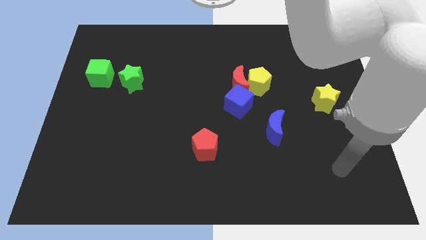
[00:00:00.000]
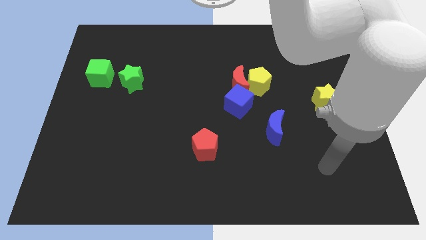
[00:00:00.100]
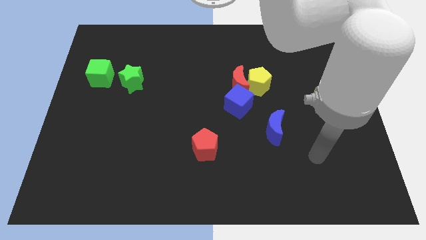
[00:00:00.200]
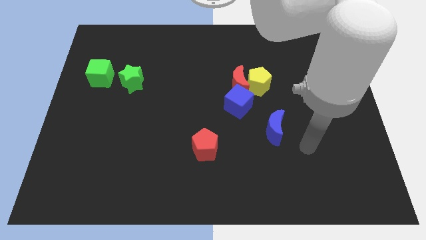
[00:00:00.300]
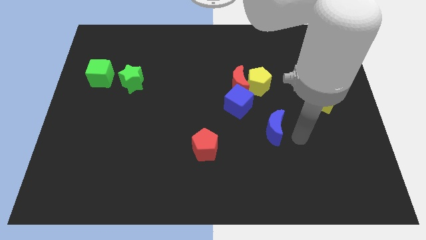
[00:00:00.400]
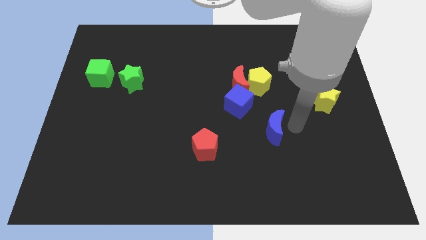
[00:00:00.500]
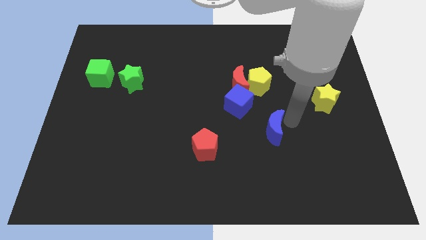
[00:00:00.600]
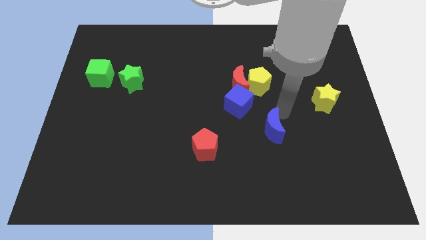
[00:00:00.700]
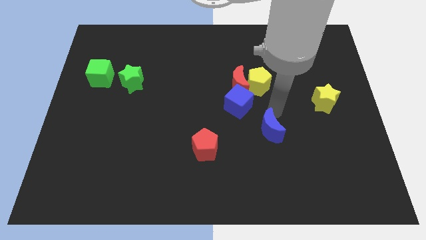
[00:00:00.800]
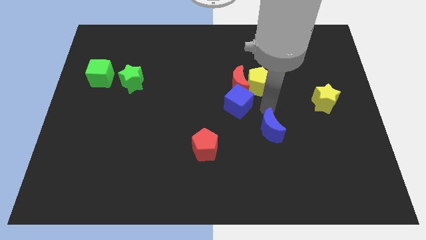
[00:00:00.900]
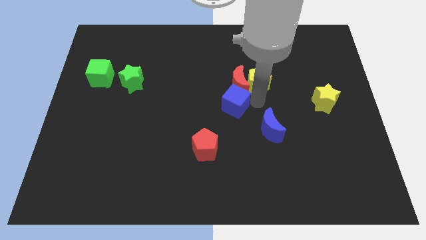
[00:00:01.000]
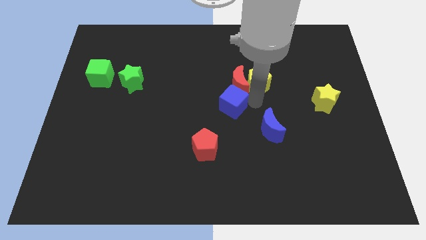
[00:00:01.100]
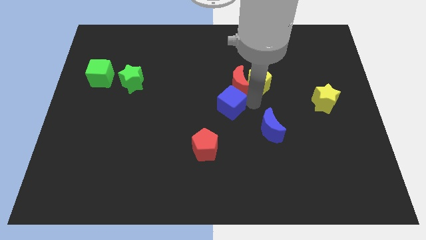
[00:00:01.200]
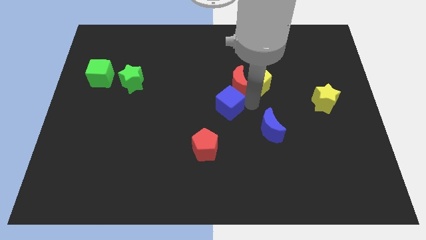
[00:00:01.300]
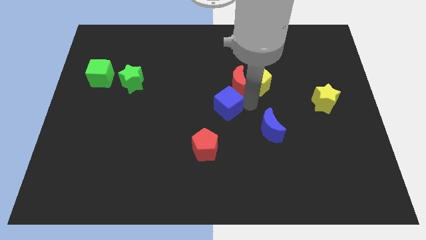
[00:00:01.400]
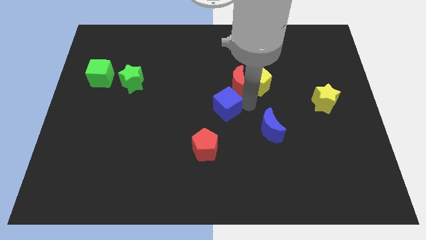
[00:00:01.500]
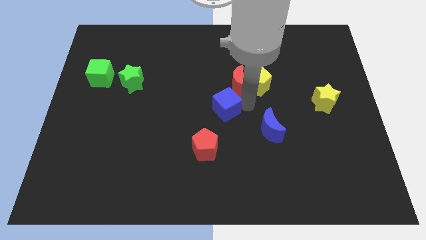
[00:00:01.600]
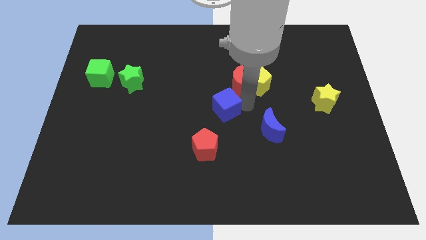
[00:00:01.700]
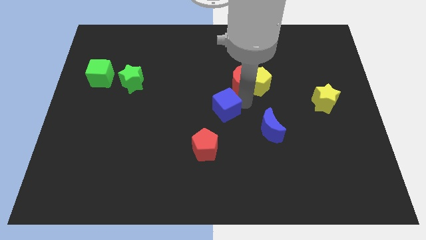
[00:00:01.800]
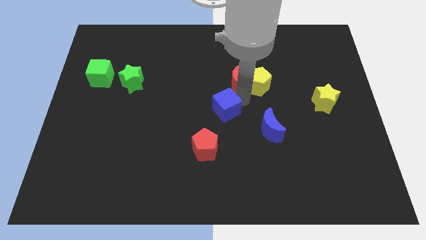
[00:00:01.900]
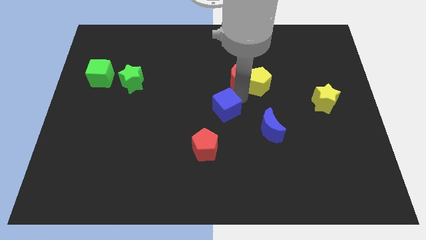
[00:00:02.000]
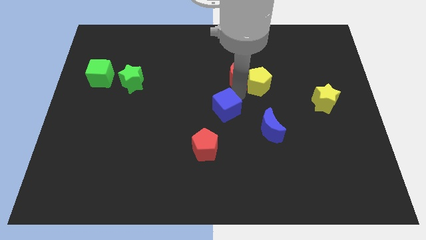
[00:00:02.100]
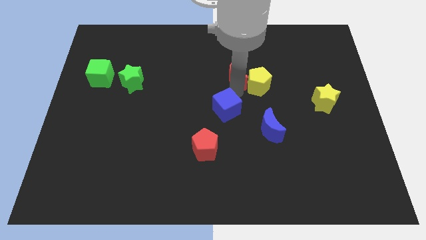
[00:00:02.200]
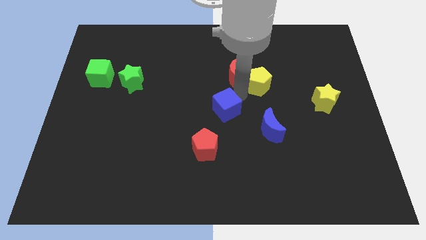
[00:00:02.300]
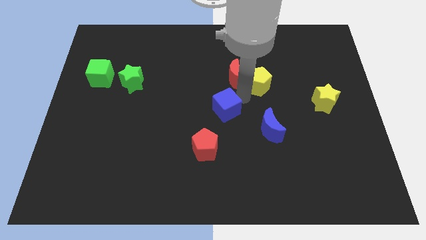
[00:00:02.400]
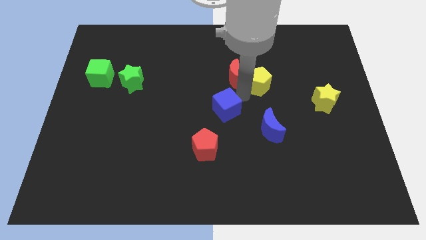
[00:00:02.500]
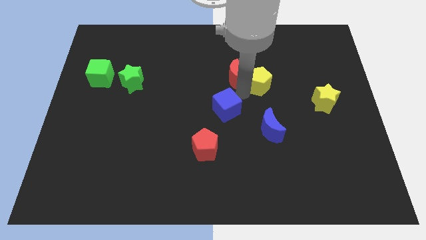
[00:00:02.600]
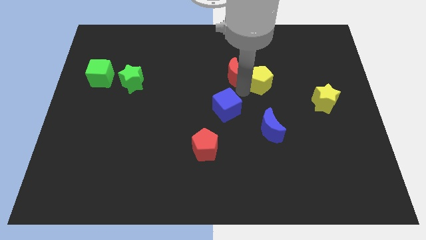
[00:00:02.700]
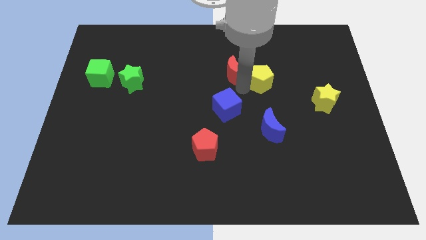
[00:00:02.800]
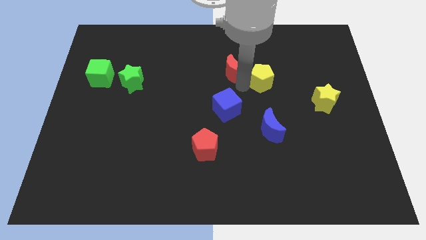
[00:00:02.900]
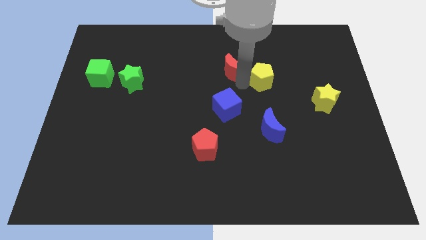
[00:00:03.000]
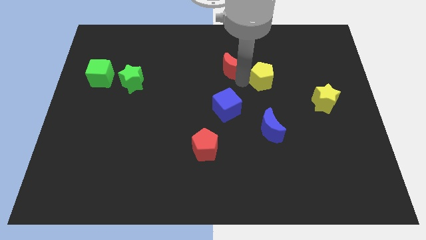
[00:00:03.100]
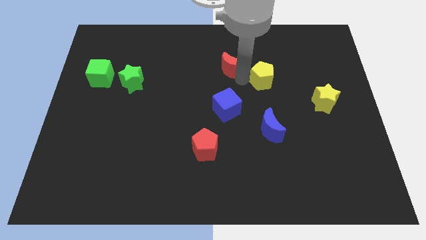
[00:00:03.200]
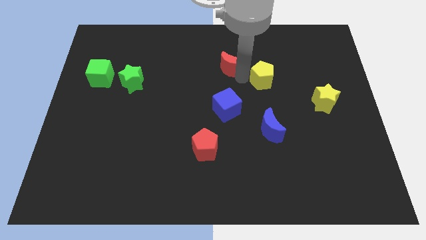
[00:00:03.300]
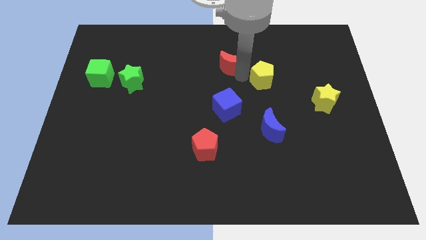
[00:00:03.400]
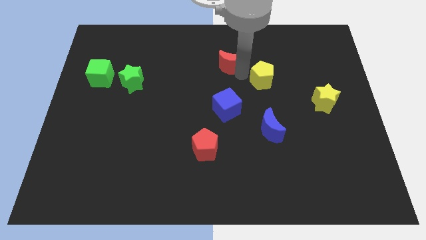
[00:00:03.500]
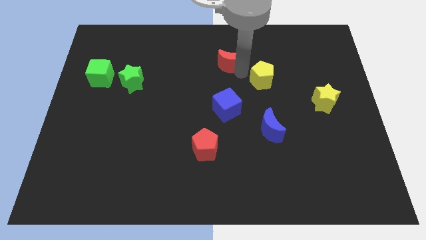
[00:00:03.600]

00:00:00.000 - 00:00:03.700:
move the red moon away from the yellow pentagon and blue cube

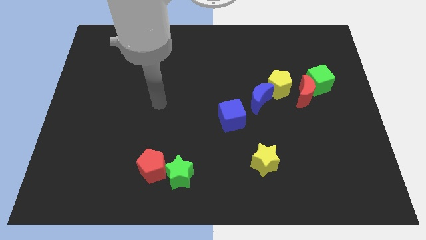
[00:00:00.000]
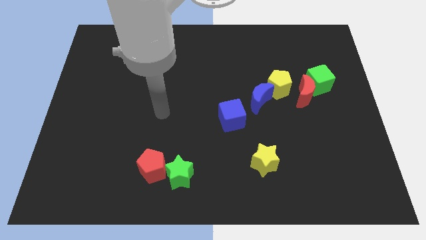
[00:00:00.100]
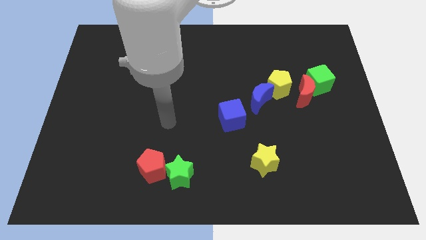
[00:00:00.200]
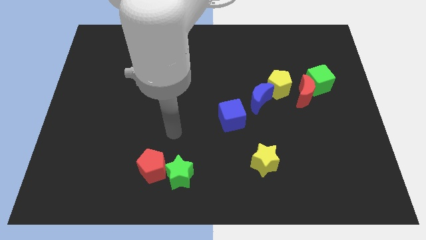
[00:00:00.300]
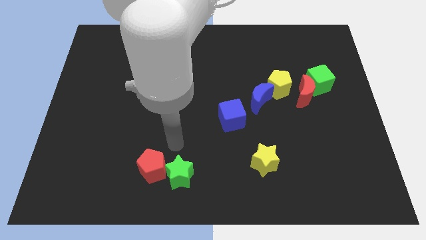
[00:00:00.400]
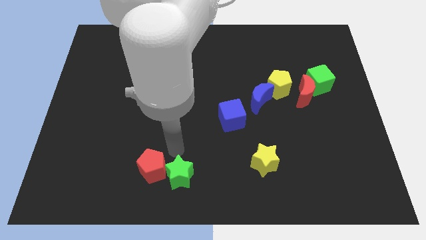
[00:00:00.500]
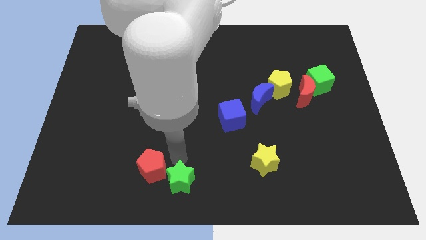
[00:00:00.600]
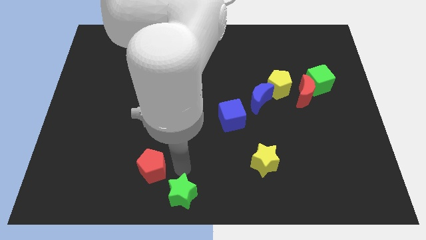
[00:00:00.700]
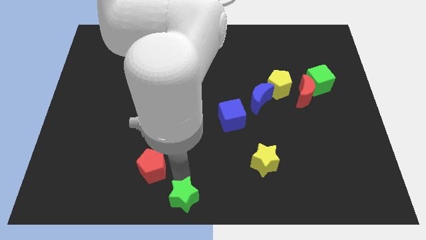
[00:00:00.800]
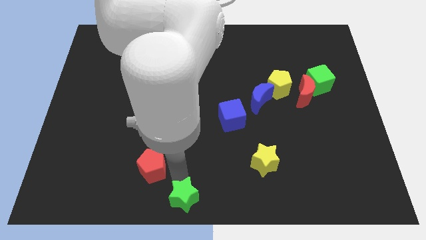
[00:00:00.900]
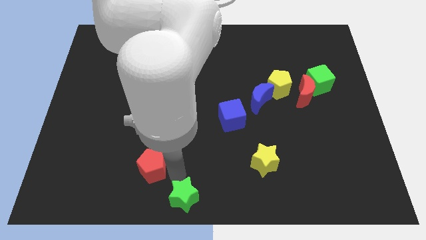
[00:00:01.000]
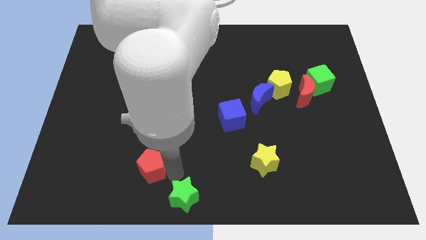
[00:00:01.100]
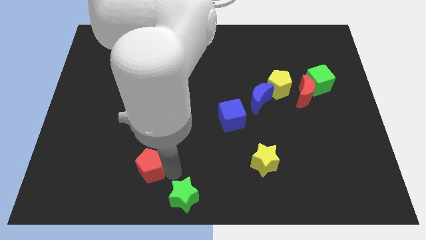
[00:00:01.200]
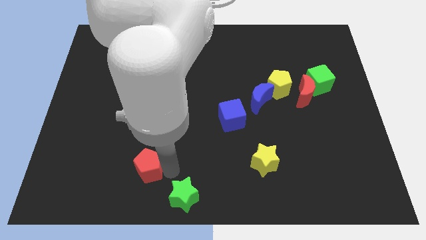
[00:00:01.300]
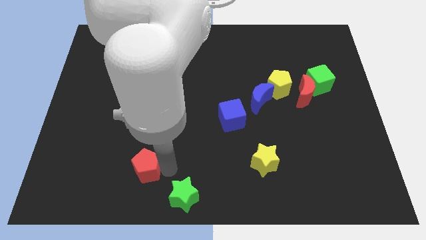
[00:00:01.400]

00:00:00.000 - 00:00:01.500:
pull the red pentagon apart from the green star

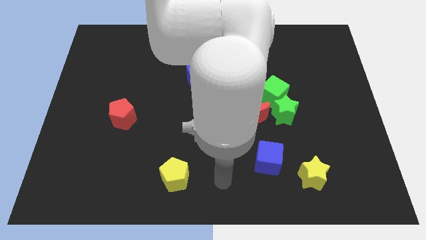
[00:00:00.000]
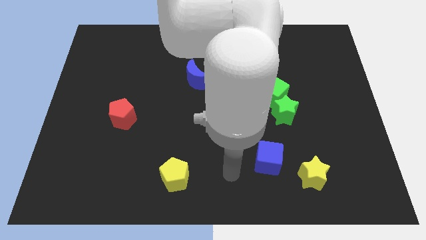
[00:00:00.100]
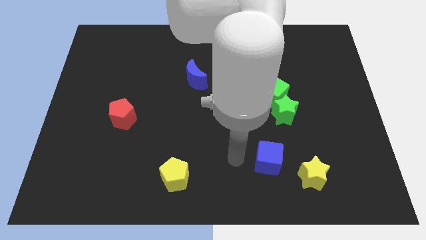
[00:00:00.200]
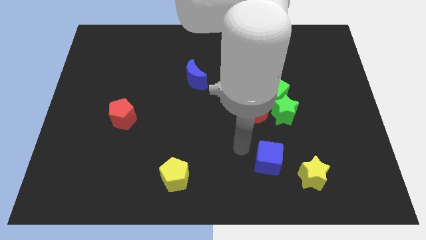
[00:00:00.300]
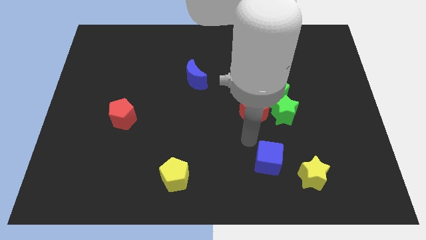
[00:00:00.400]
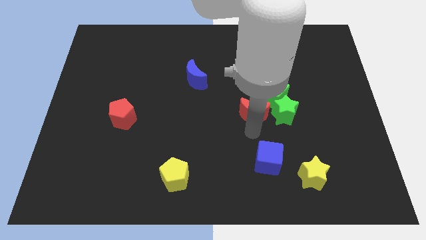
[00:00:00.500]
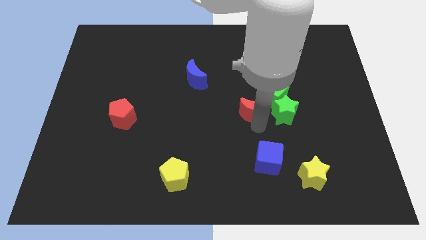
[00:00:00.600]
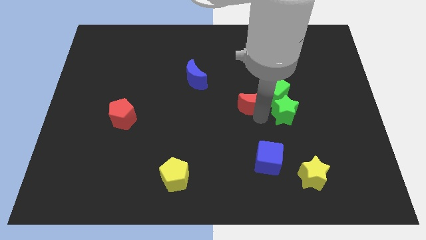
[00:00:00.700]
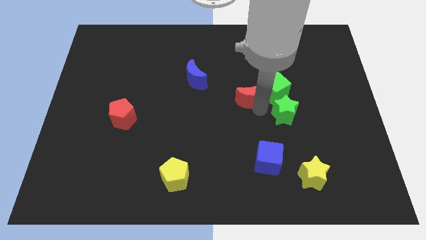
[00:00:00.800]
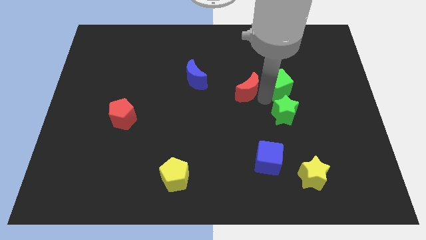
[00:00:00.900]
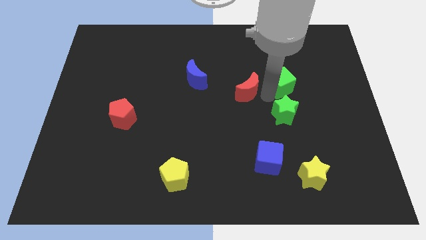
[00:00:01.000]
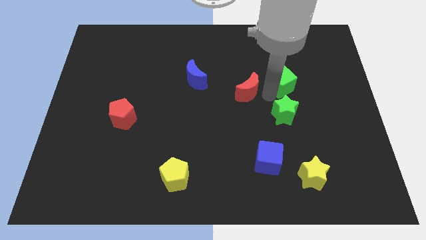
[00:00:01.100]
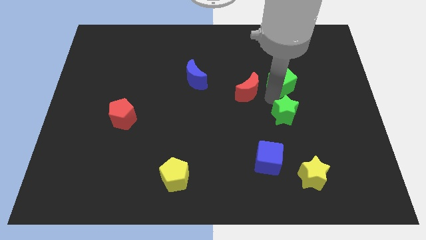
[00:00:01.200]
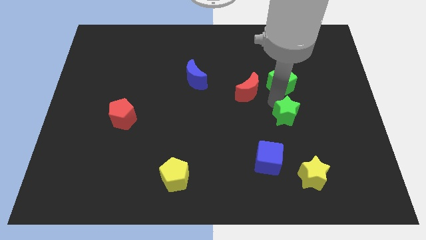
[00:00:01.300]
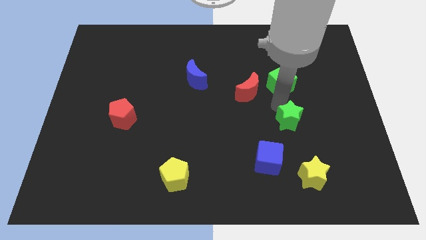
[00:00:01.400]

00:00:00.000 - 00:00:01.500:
pull the green star apart from the green cube and red moon

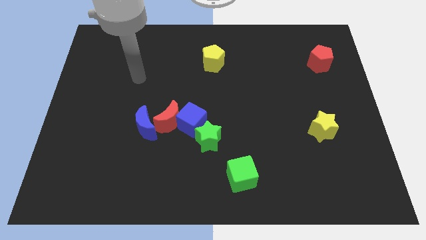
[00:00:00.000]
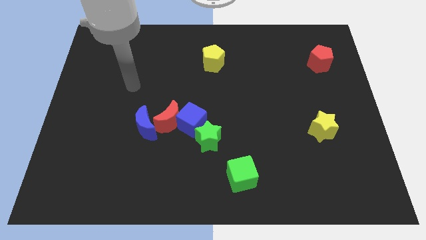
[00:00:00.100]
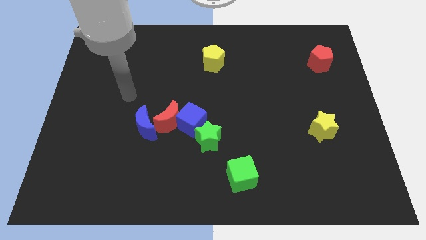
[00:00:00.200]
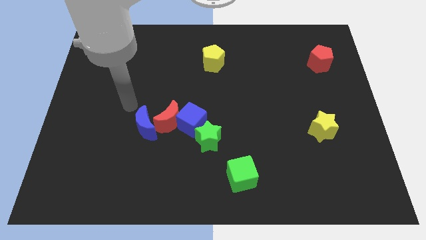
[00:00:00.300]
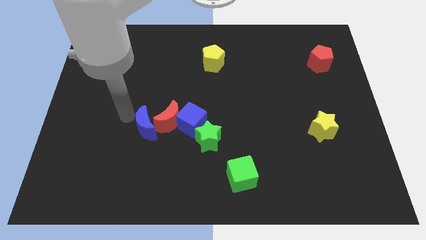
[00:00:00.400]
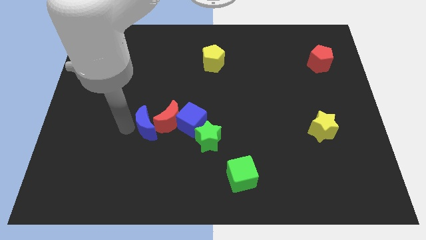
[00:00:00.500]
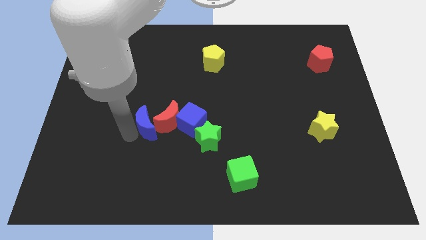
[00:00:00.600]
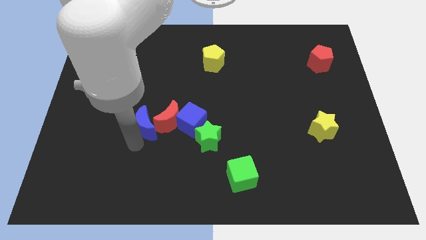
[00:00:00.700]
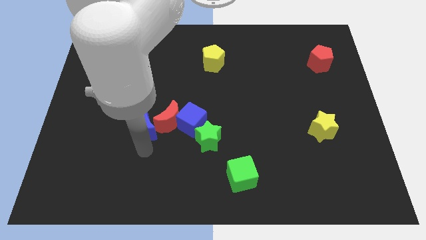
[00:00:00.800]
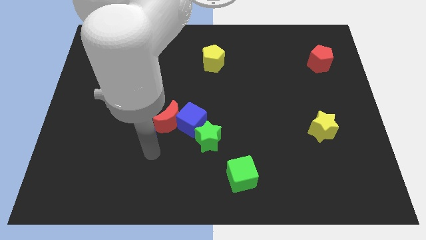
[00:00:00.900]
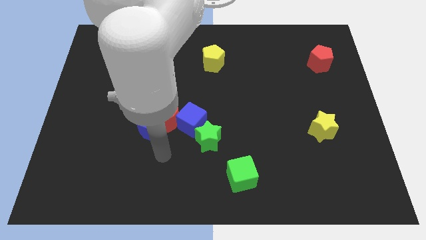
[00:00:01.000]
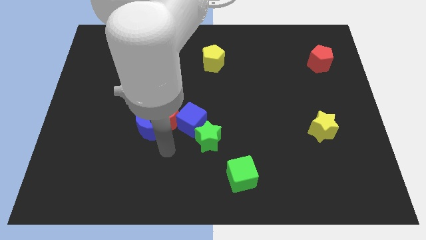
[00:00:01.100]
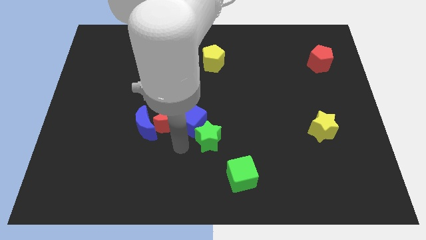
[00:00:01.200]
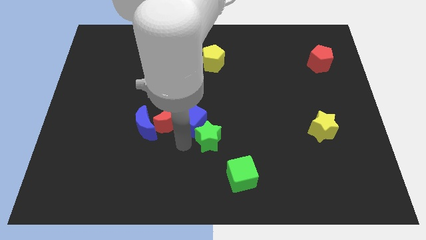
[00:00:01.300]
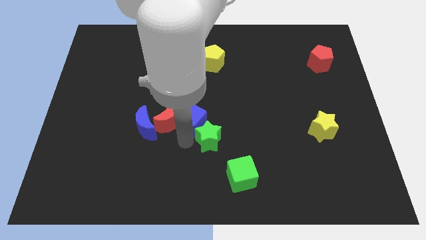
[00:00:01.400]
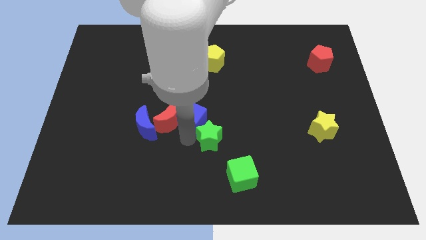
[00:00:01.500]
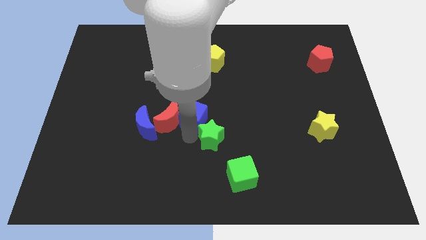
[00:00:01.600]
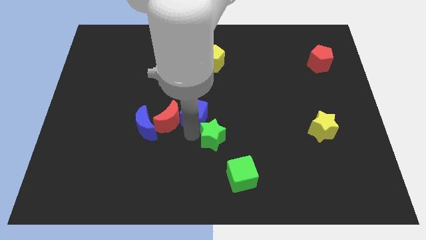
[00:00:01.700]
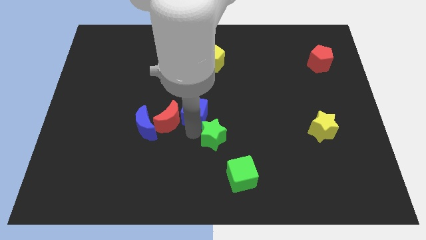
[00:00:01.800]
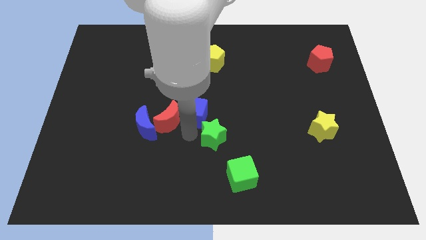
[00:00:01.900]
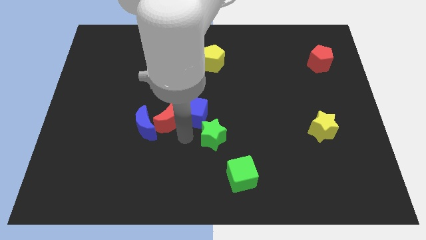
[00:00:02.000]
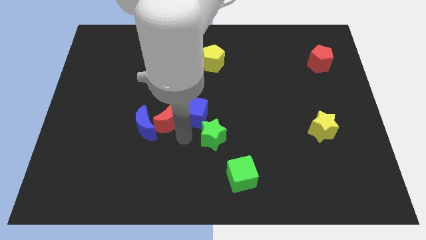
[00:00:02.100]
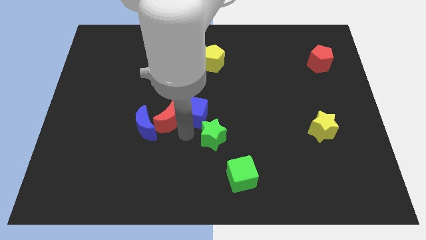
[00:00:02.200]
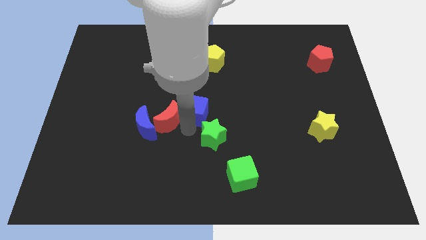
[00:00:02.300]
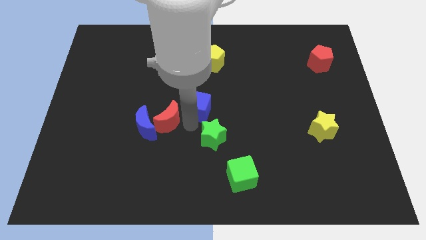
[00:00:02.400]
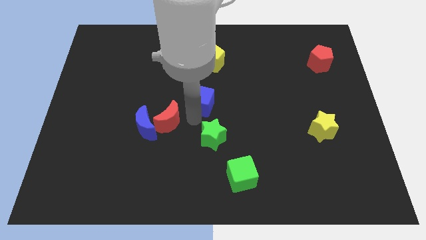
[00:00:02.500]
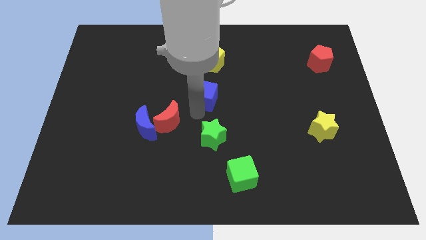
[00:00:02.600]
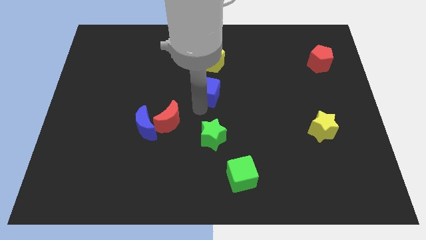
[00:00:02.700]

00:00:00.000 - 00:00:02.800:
pull the blue cube apart from the red moon and green star
